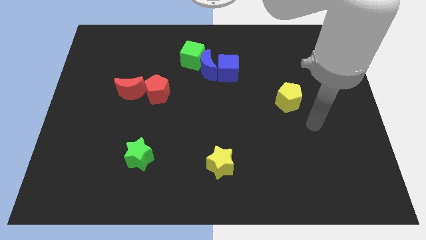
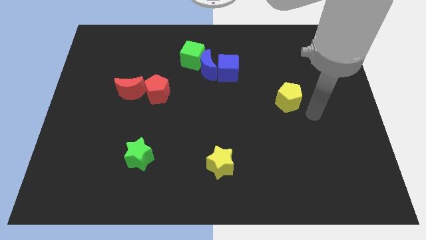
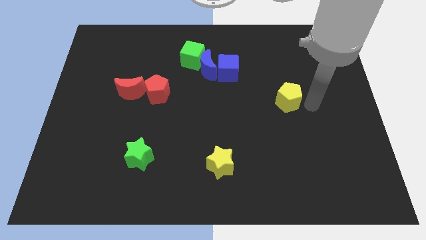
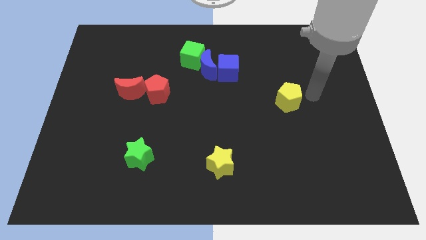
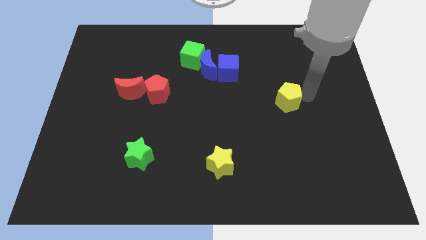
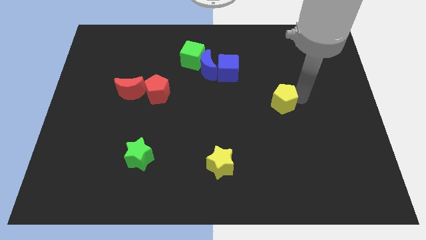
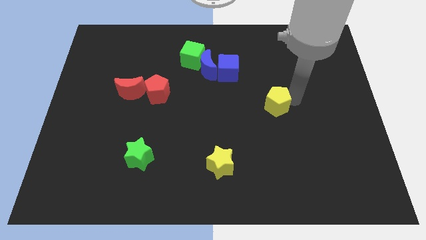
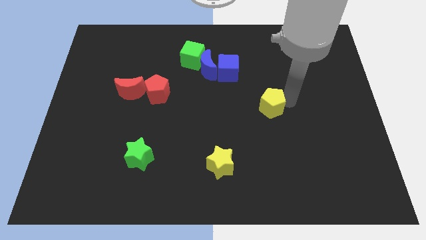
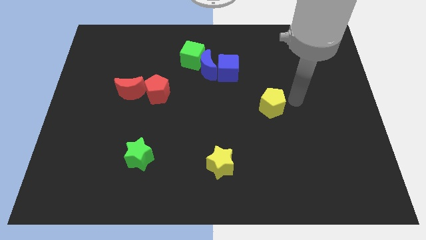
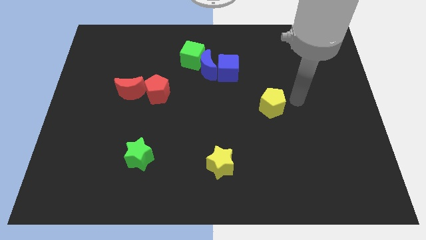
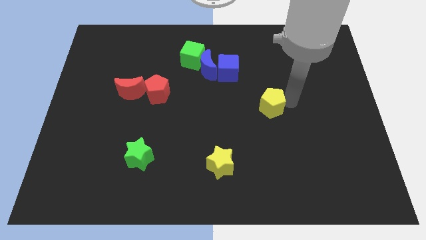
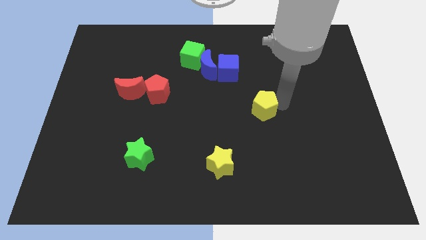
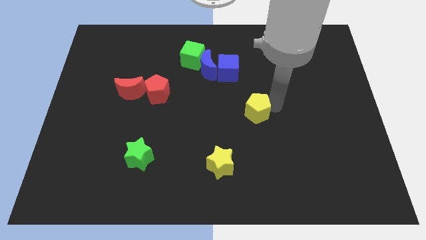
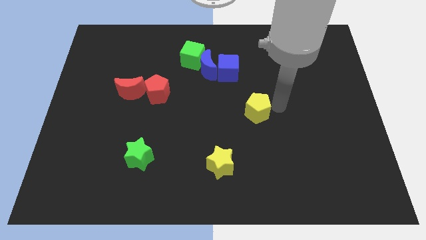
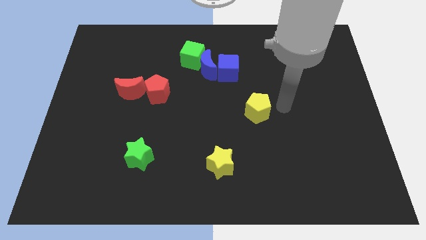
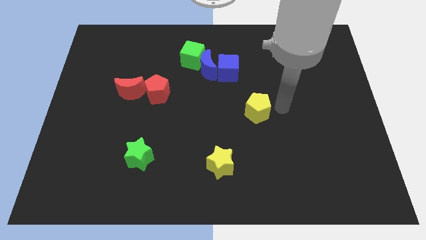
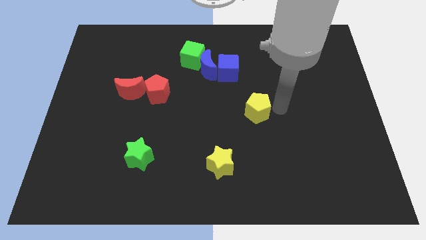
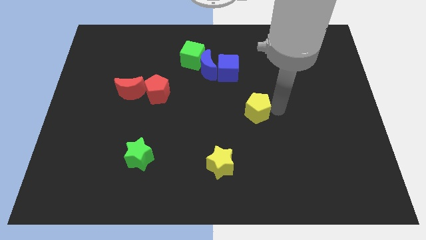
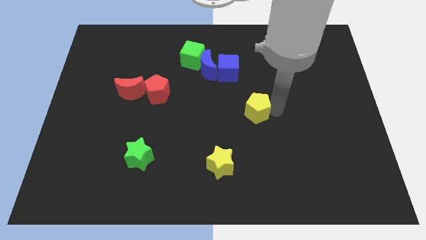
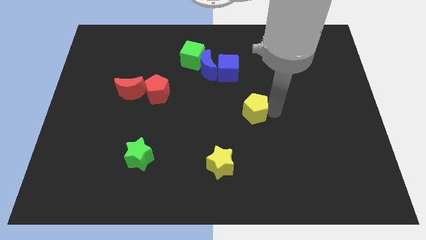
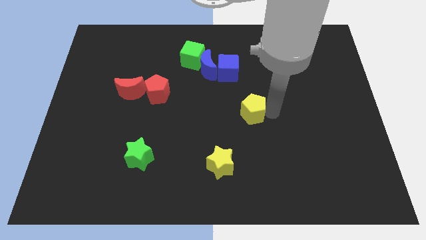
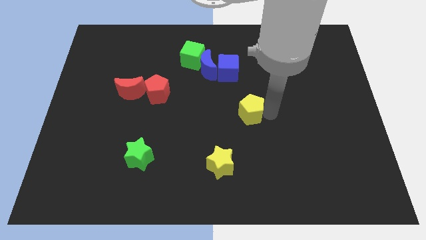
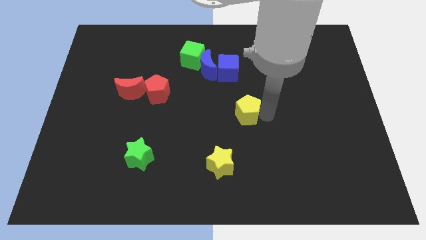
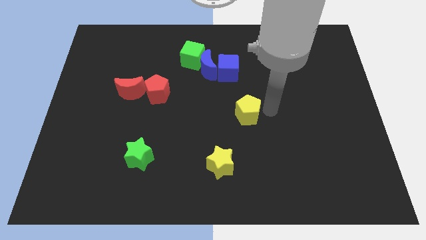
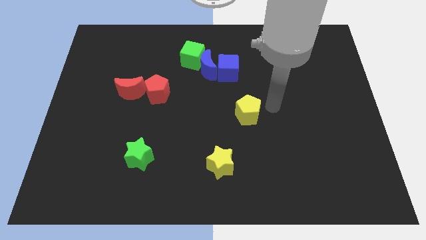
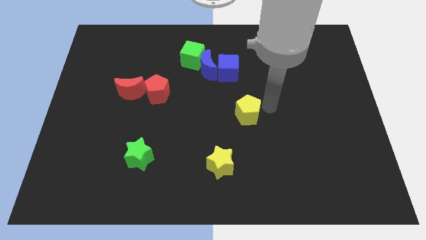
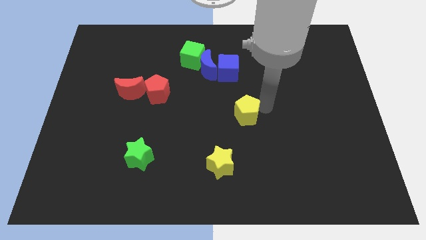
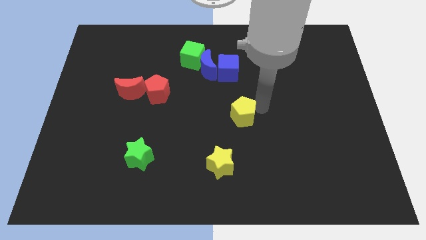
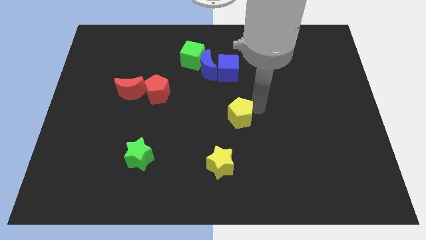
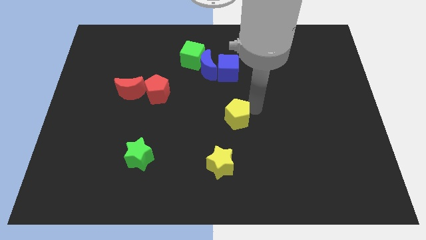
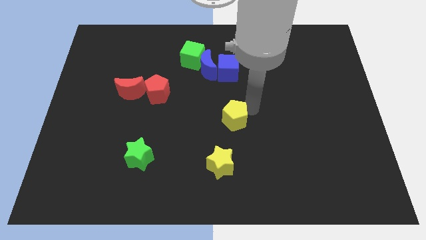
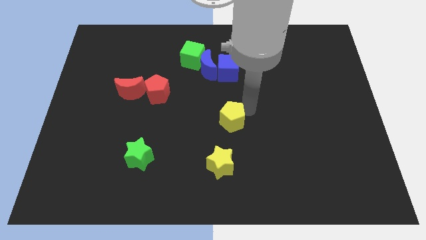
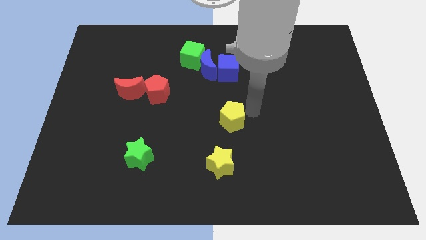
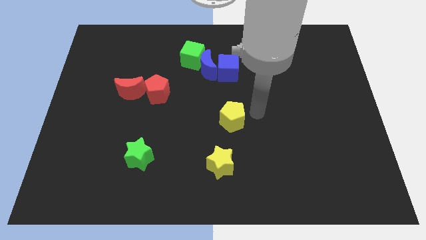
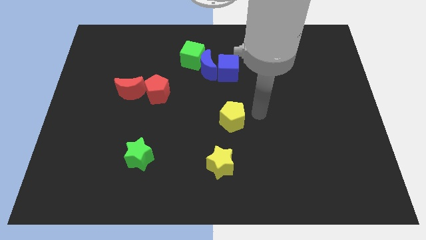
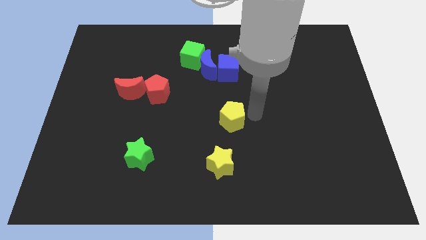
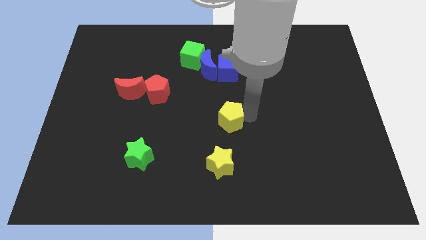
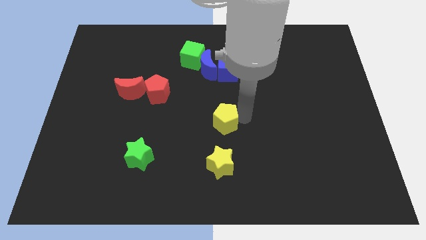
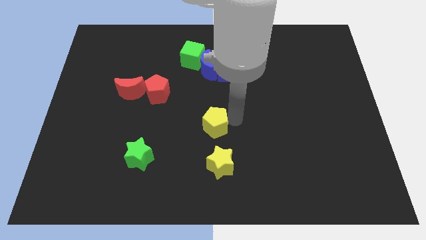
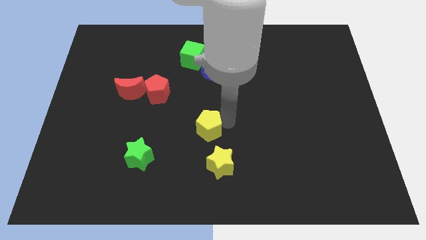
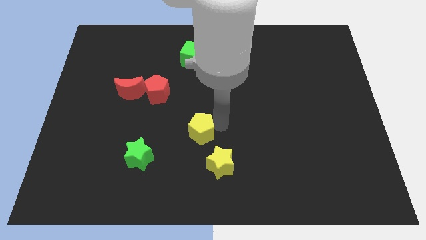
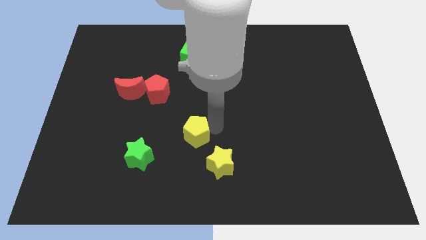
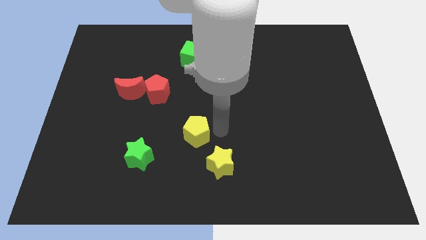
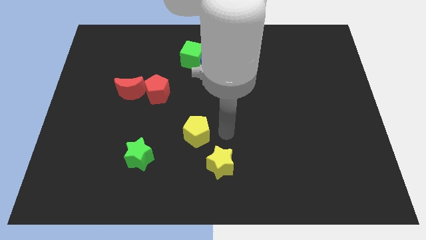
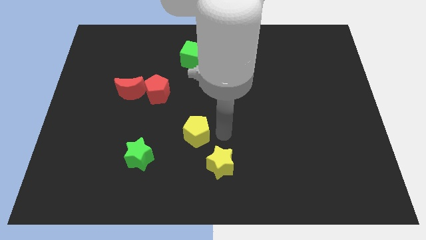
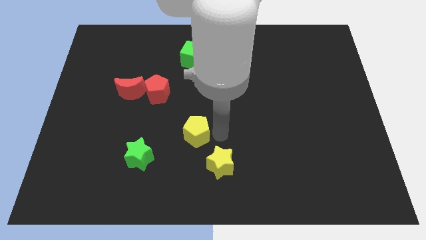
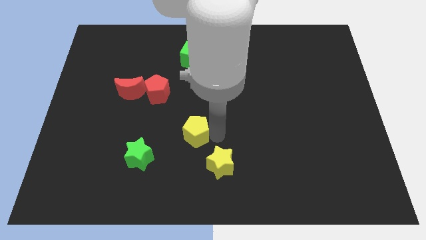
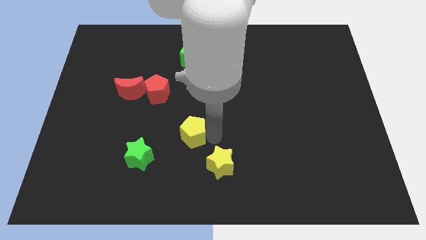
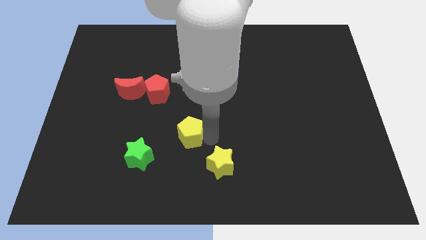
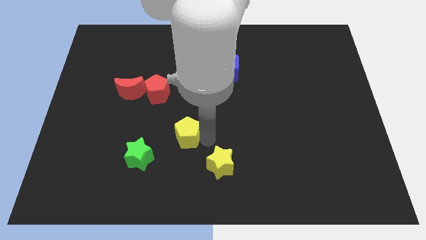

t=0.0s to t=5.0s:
push the yellow pentagon to the top right of the green star

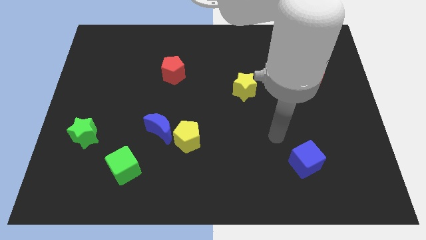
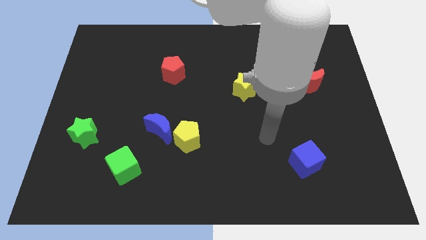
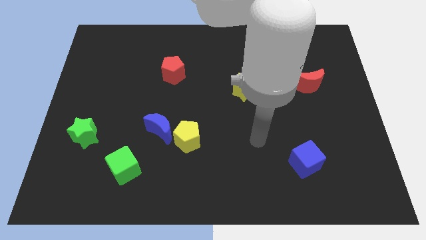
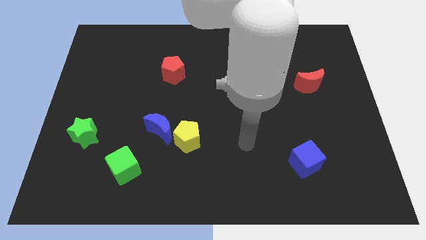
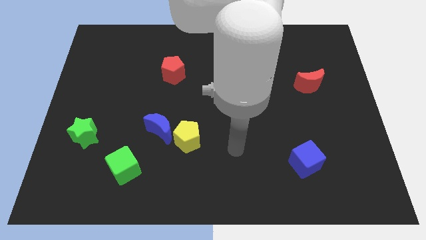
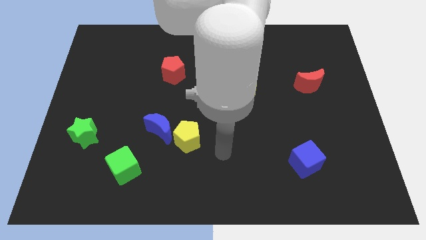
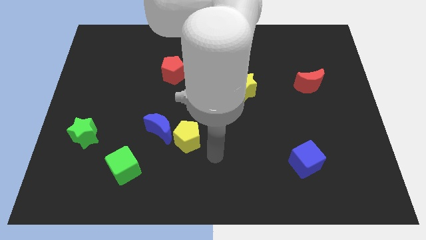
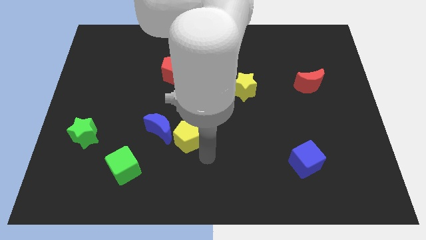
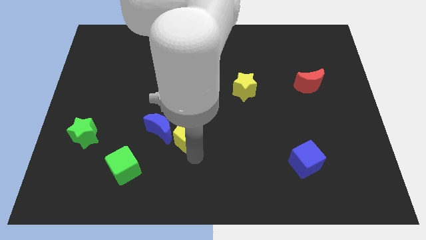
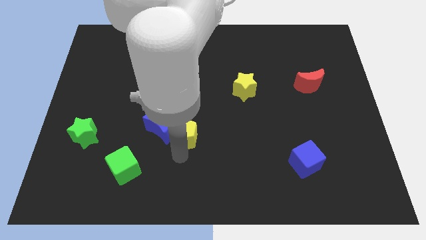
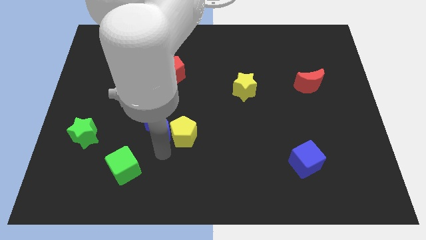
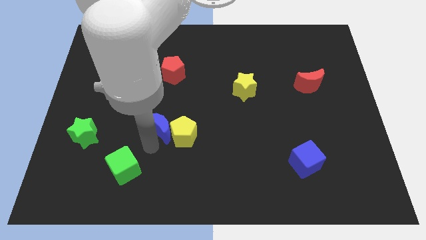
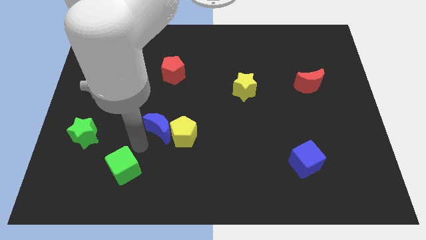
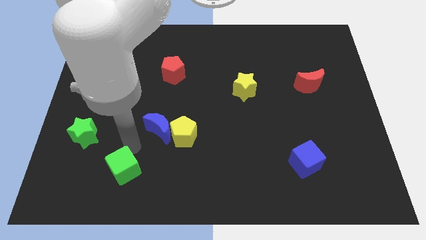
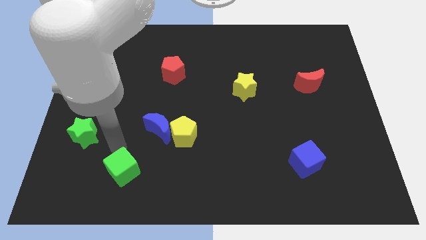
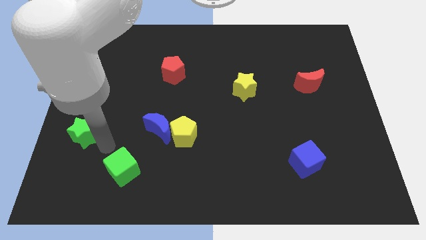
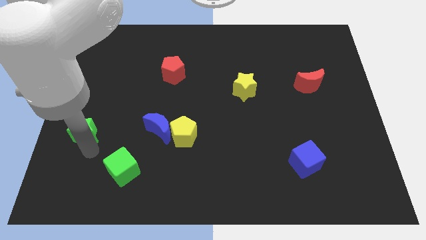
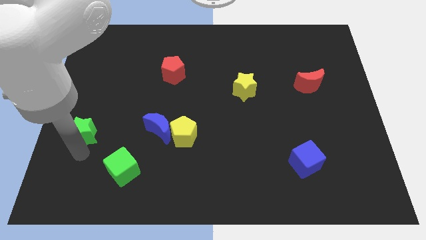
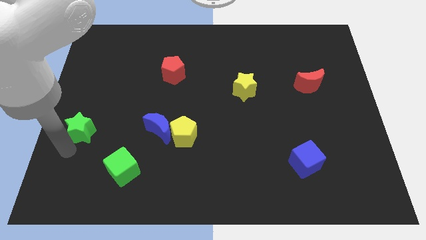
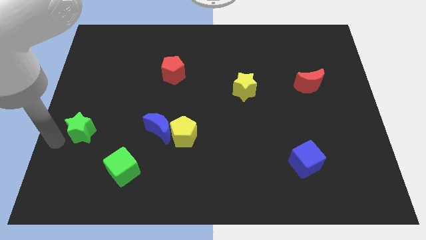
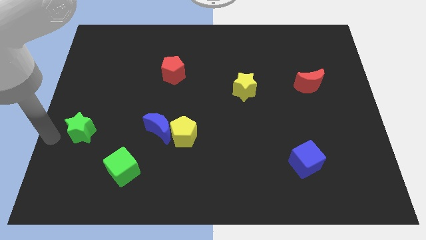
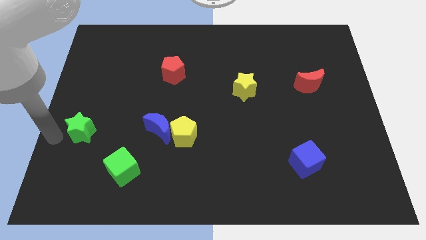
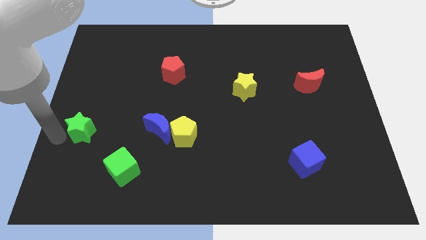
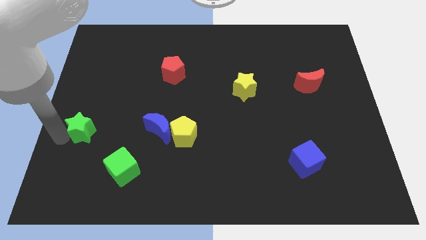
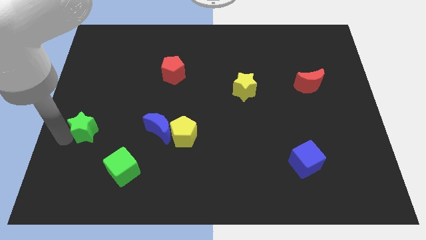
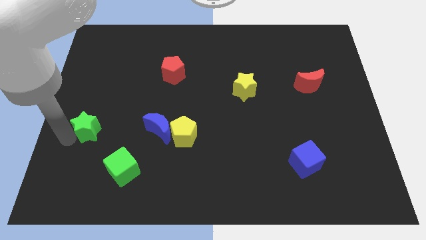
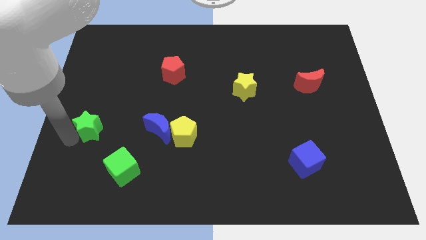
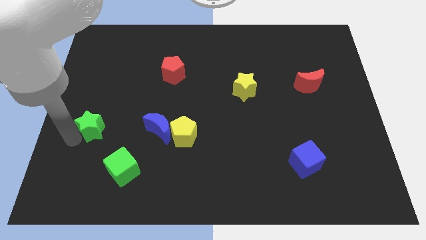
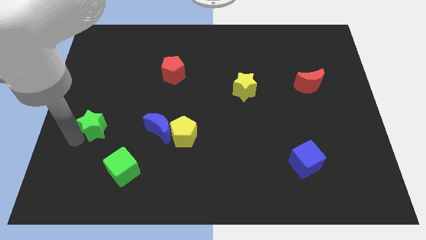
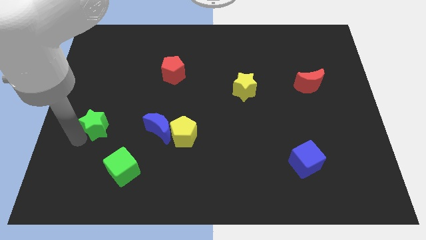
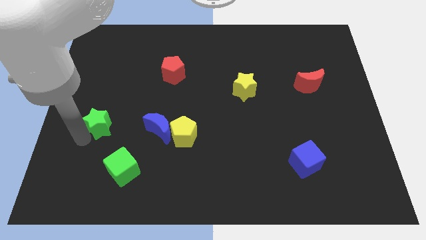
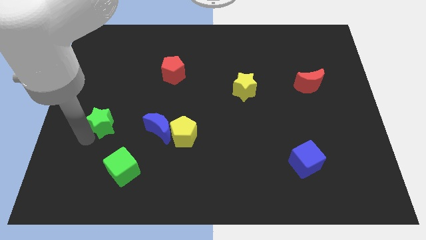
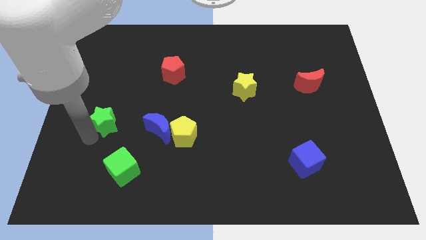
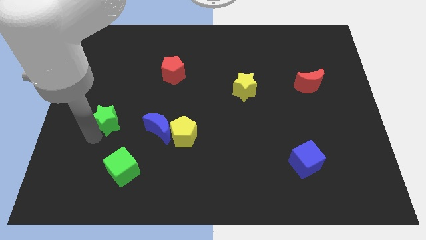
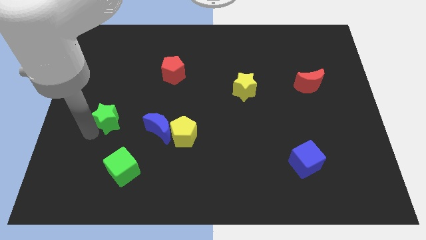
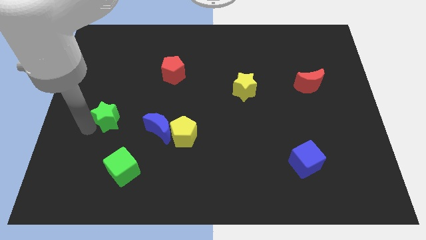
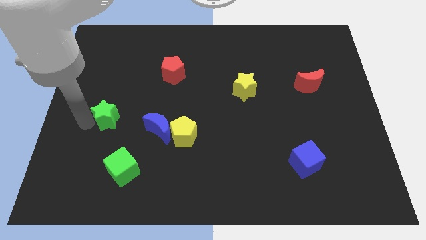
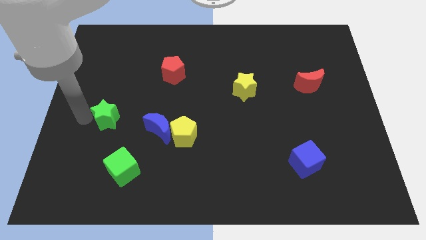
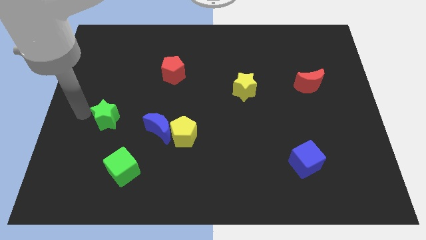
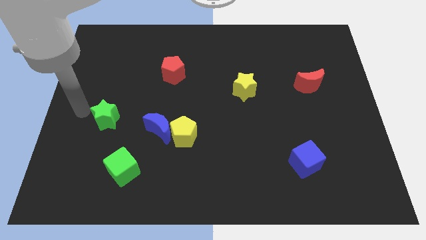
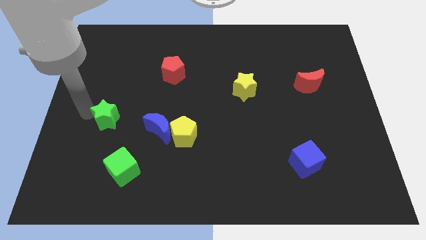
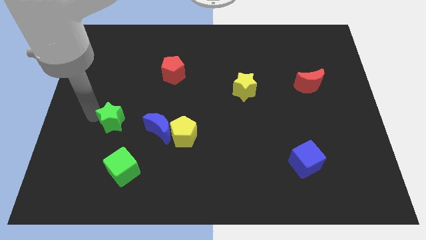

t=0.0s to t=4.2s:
slide the green star above the green cube
